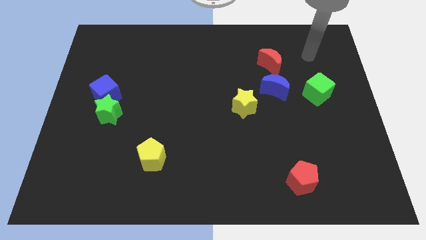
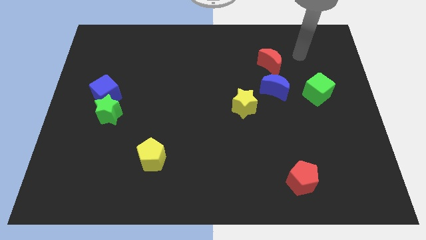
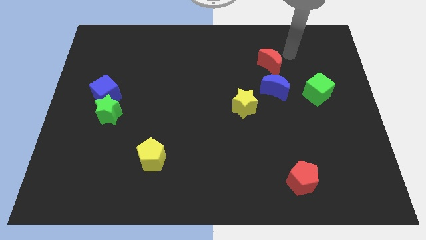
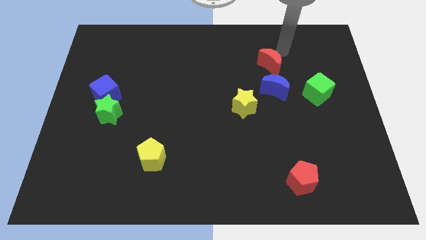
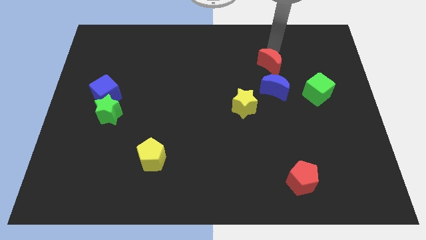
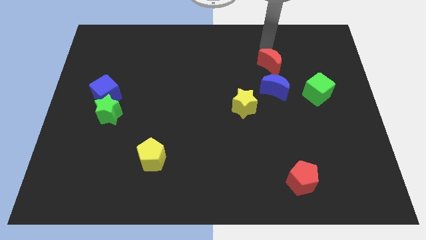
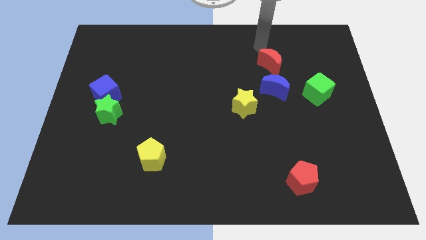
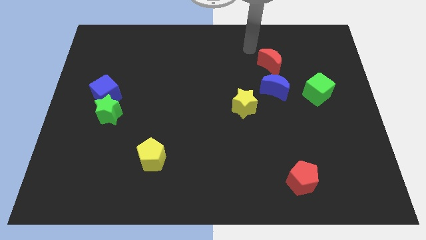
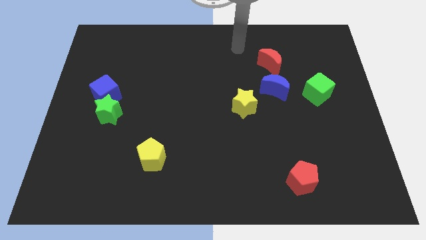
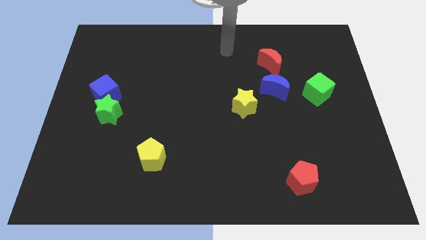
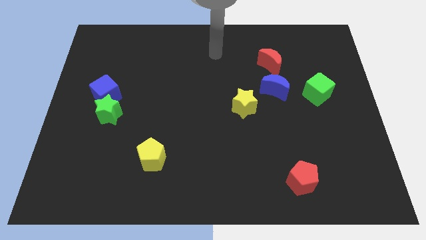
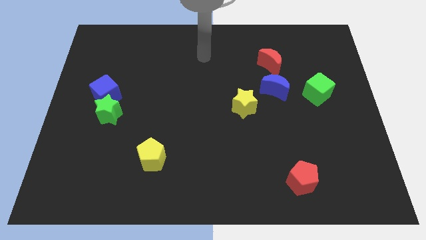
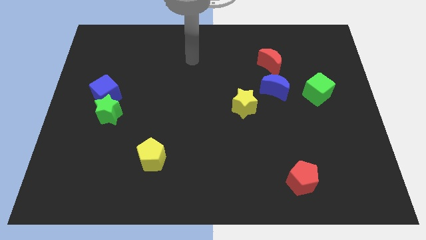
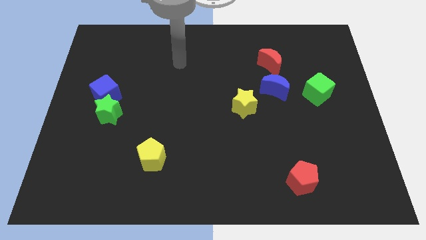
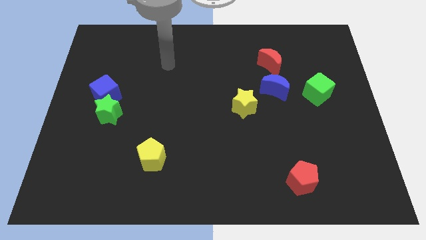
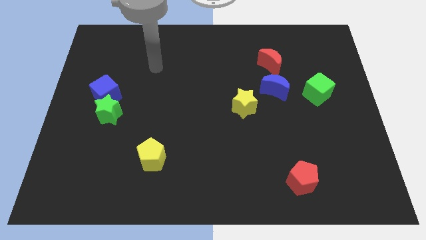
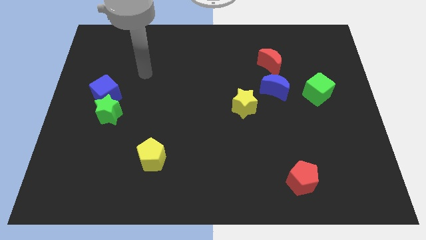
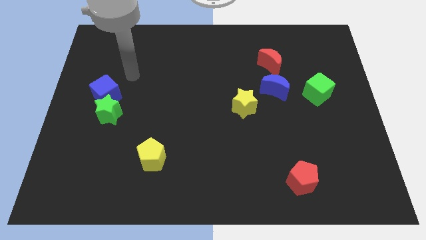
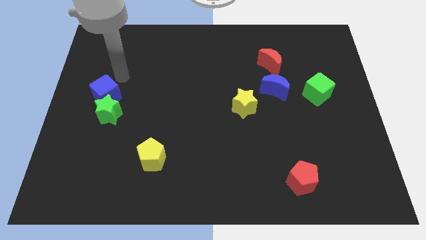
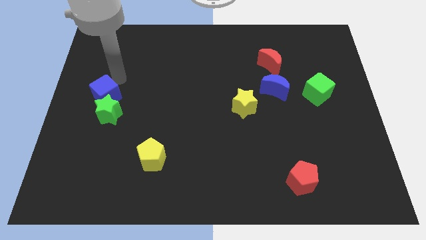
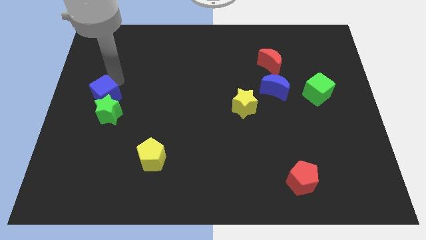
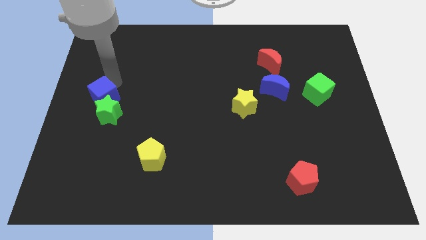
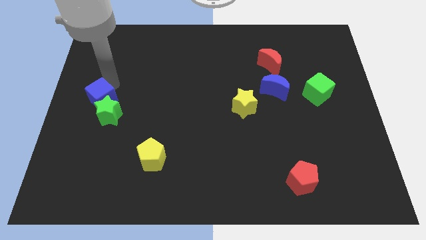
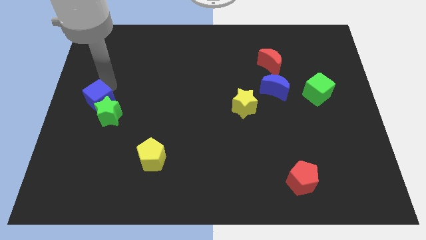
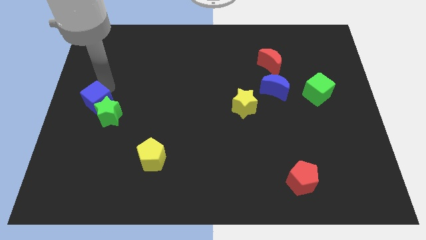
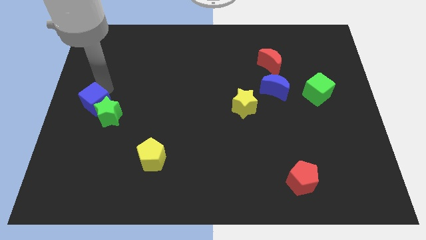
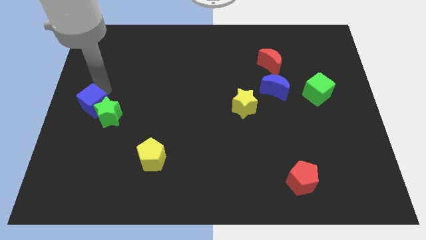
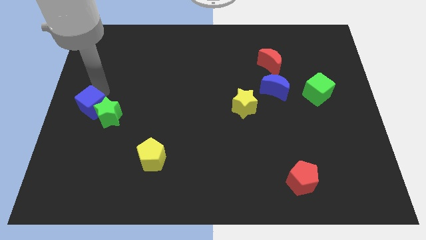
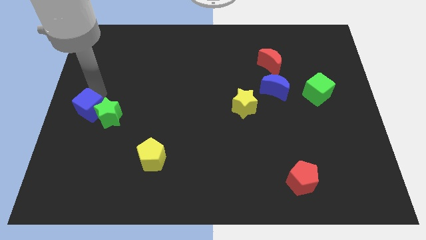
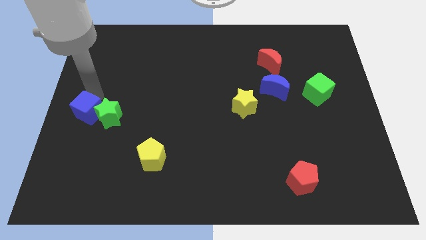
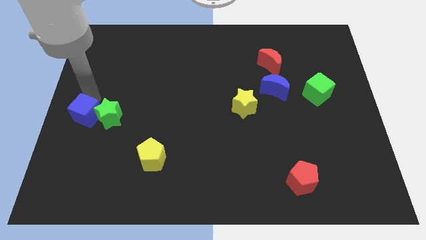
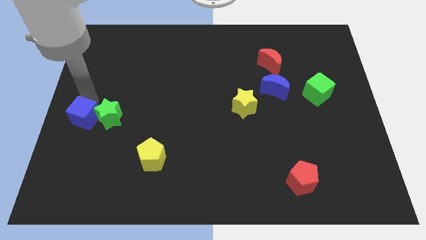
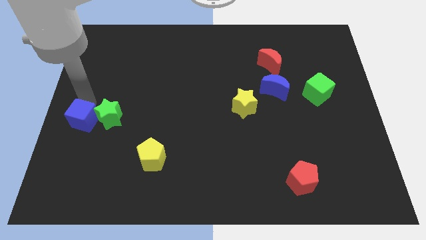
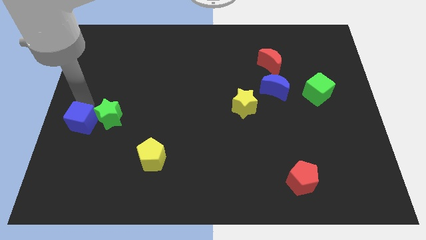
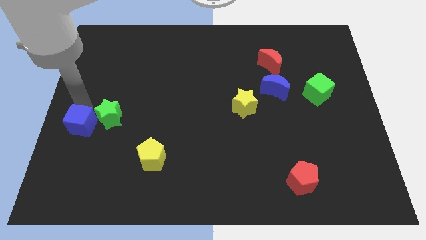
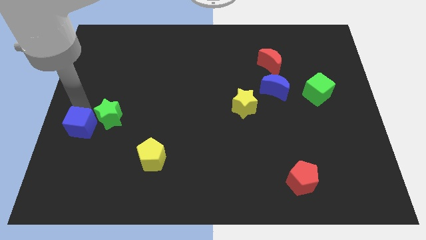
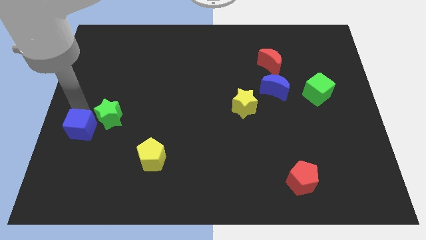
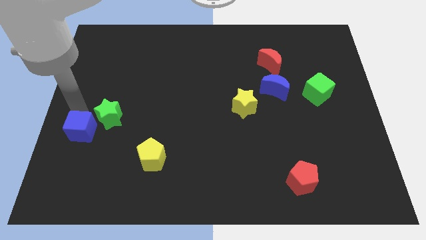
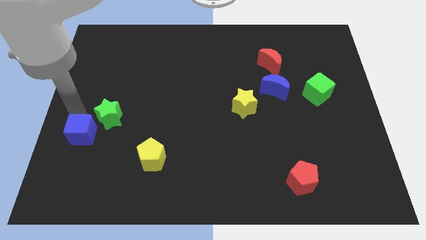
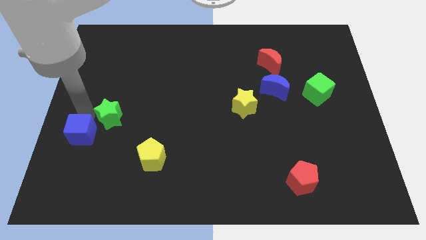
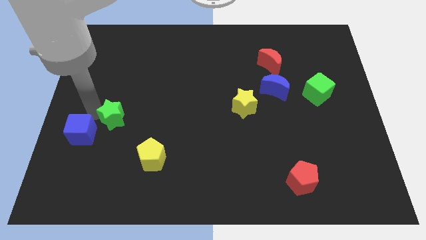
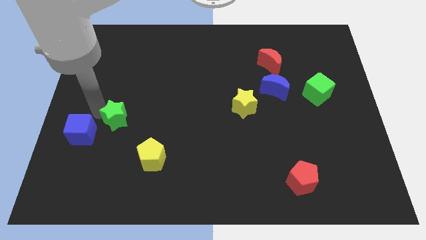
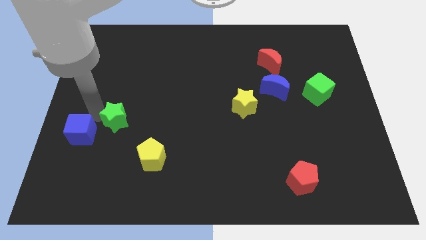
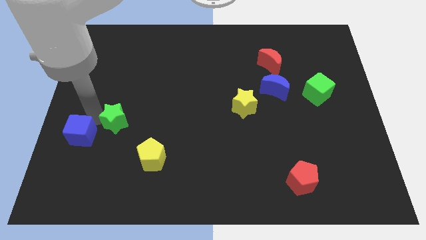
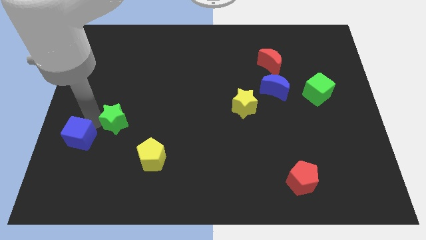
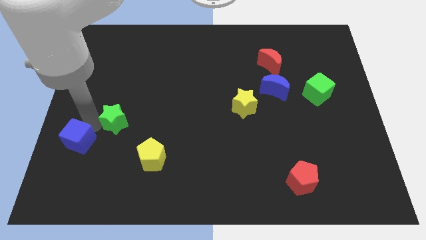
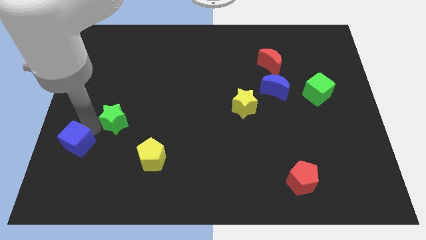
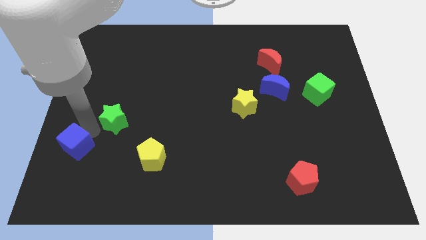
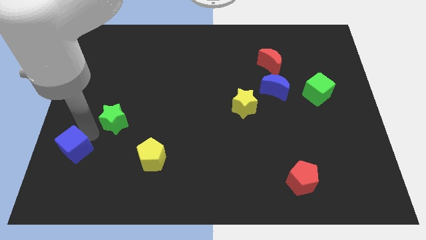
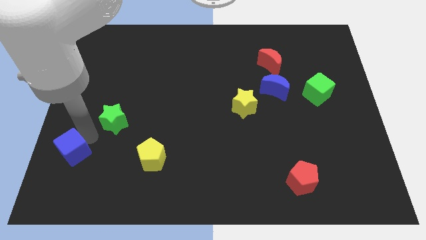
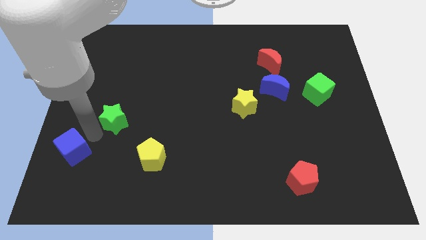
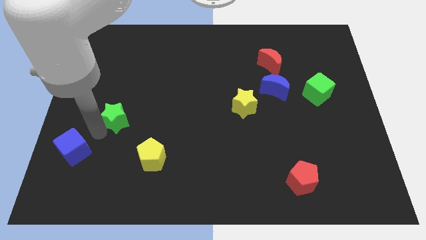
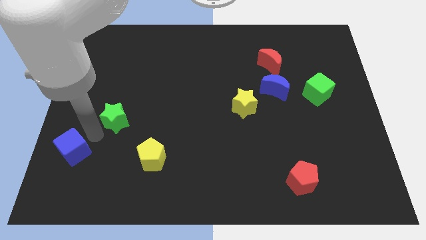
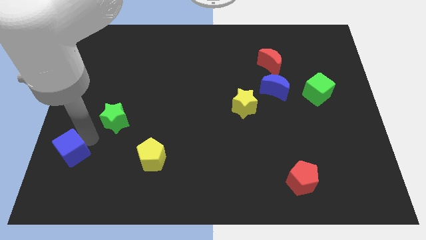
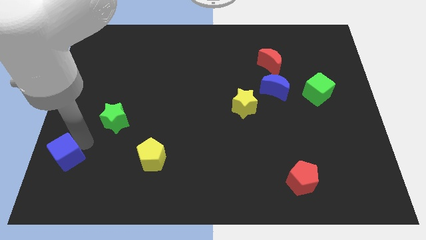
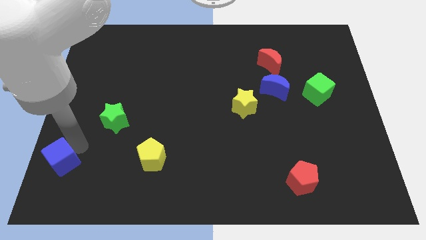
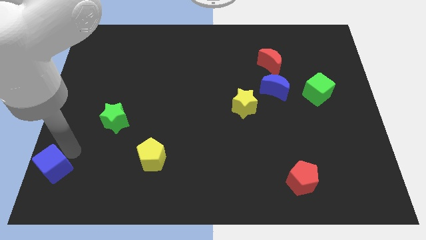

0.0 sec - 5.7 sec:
move the blue cube to the lower left corner

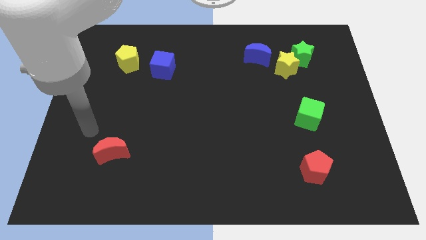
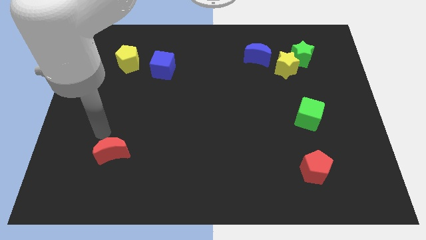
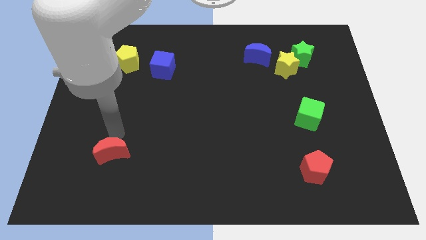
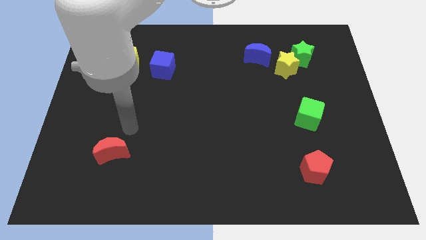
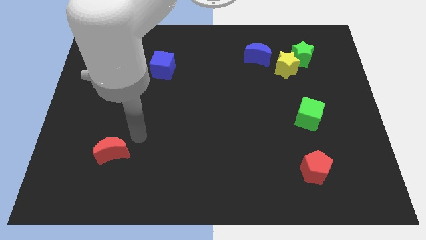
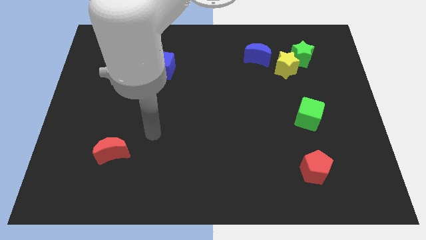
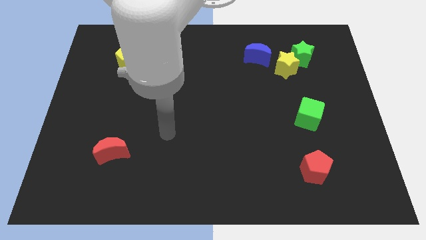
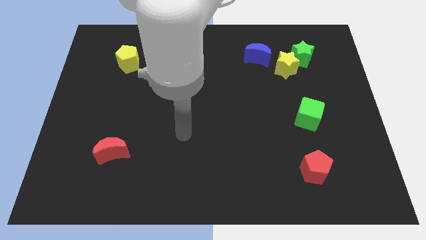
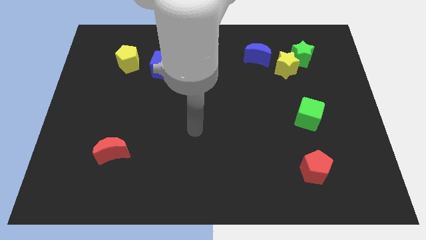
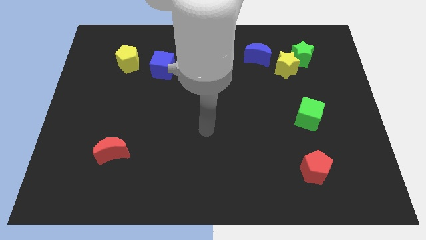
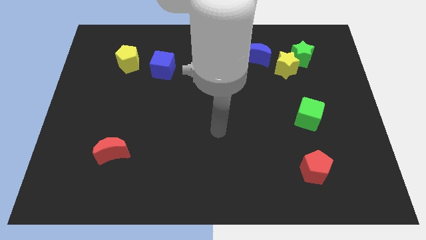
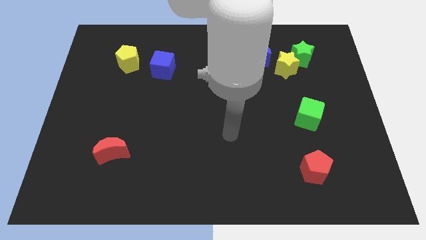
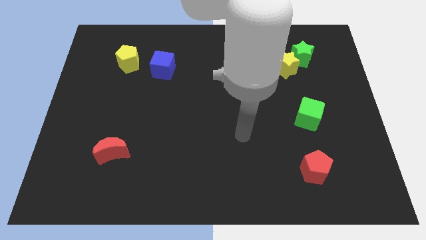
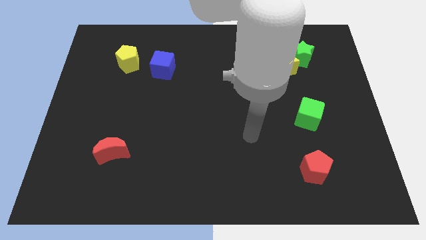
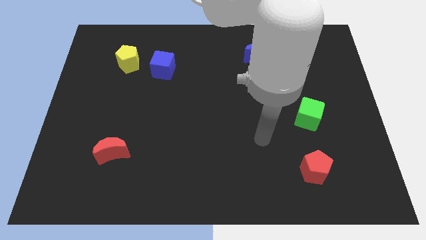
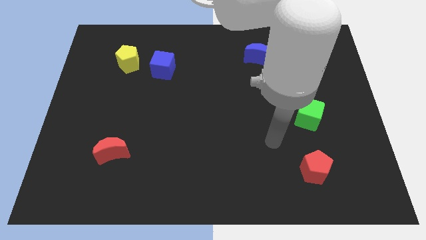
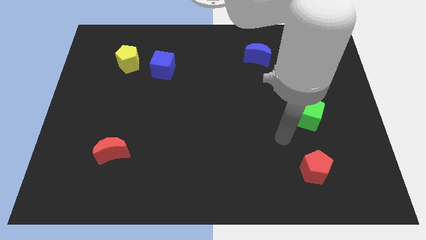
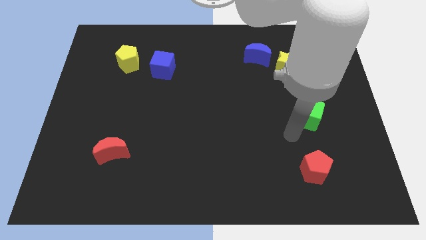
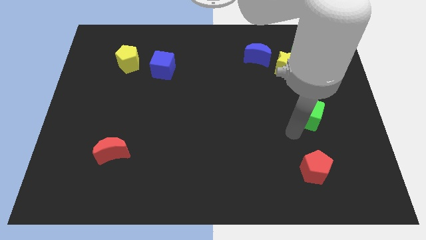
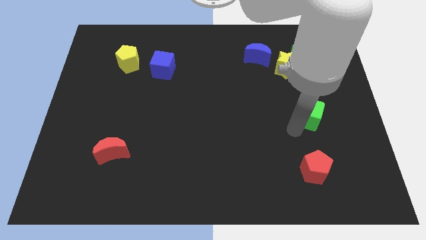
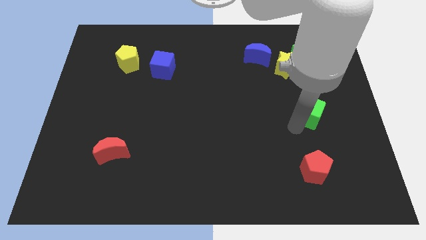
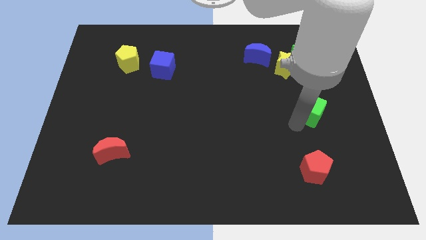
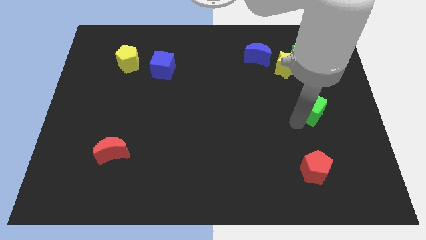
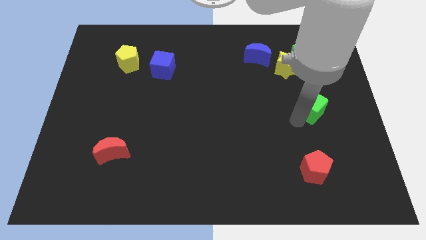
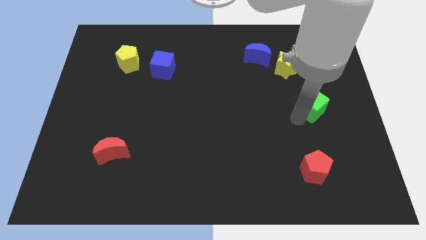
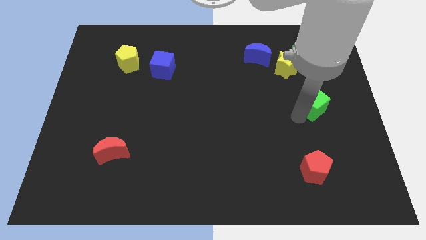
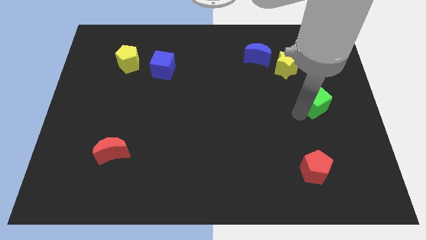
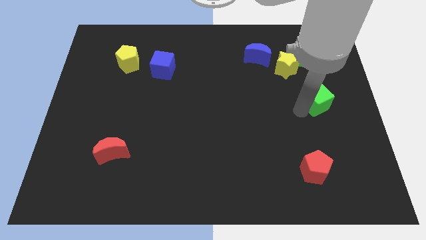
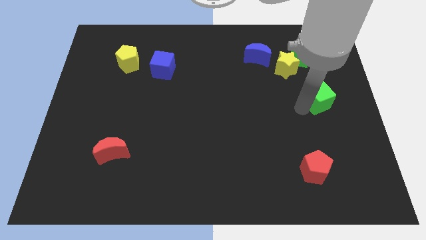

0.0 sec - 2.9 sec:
move the green cube to the right side of the board
